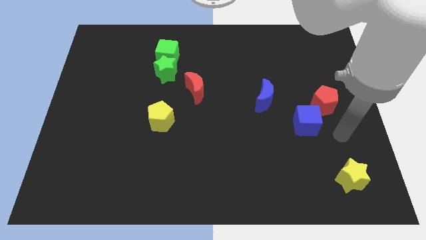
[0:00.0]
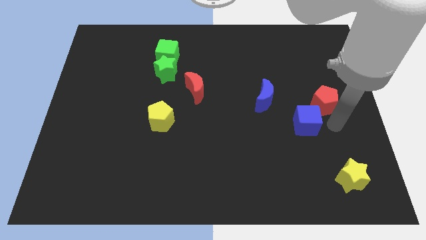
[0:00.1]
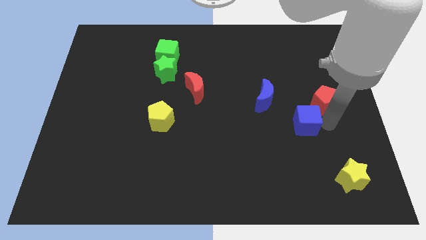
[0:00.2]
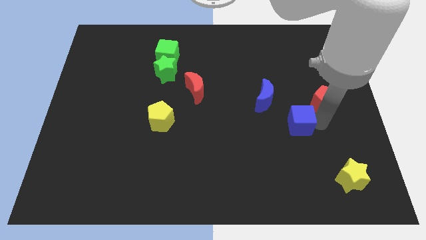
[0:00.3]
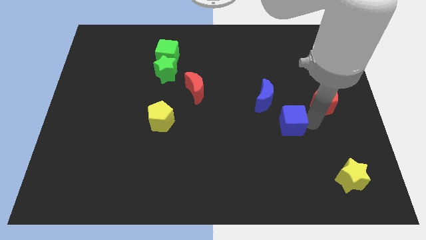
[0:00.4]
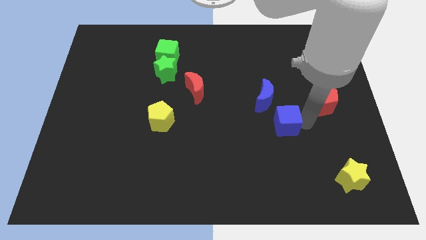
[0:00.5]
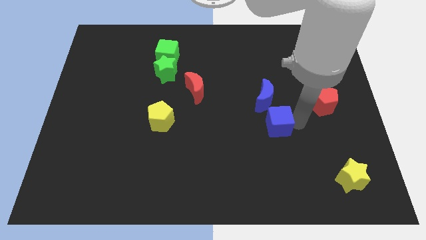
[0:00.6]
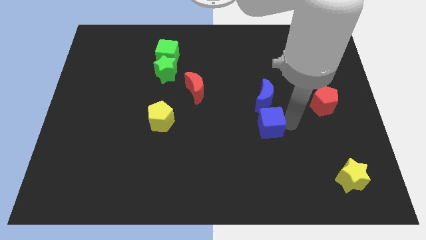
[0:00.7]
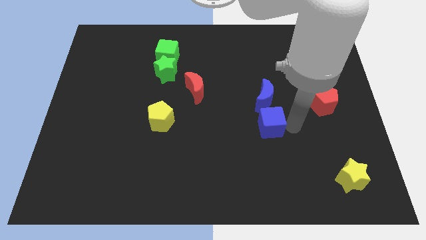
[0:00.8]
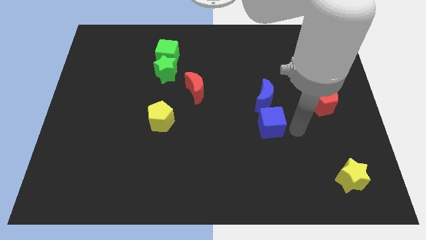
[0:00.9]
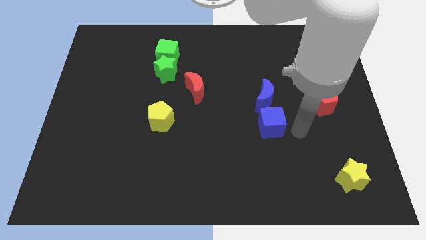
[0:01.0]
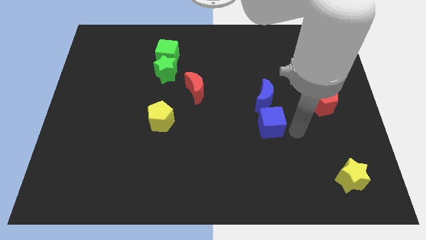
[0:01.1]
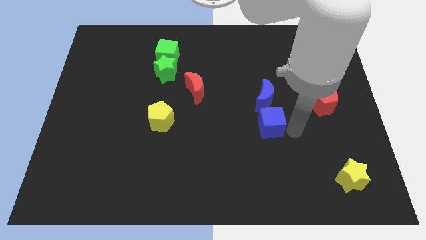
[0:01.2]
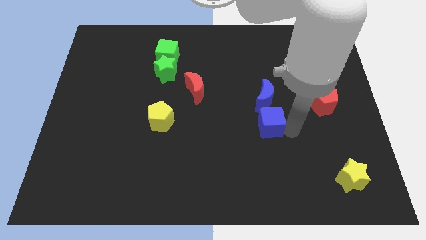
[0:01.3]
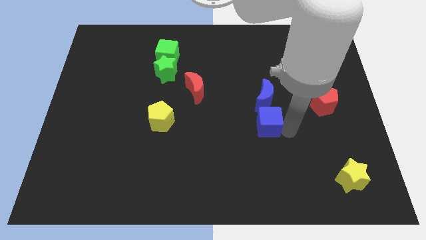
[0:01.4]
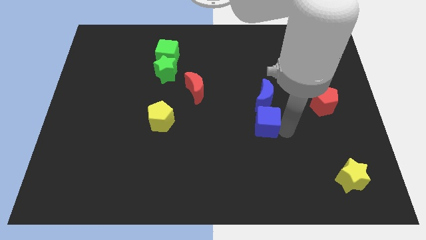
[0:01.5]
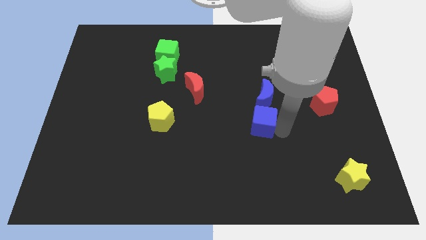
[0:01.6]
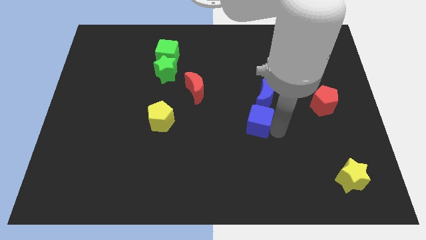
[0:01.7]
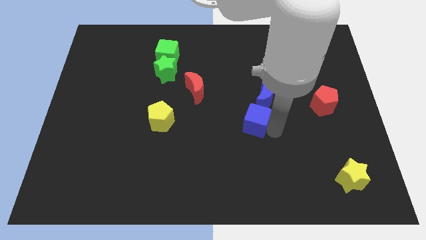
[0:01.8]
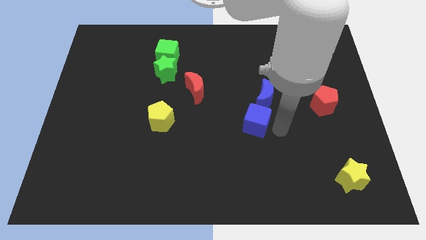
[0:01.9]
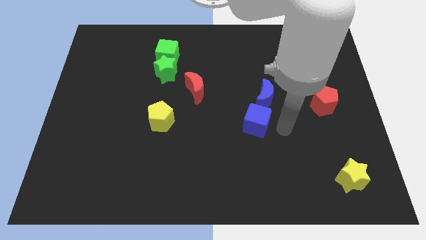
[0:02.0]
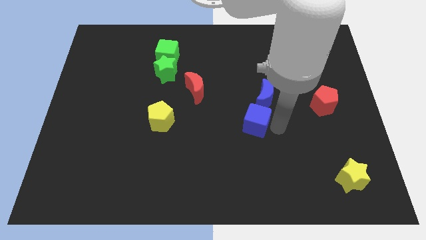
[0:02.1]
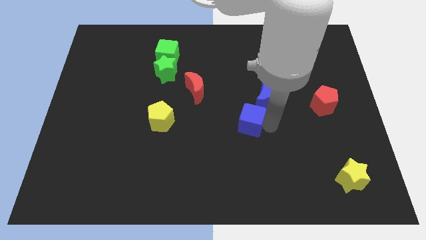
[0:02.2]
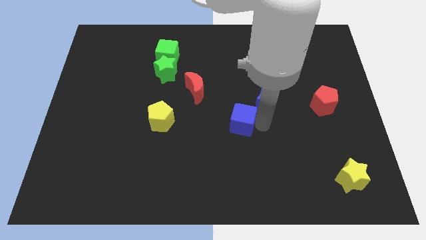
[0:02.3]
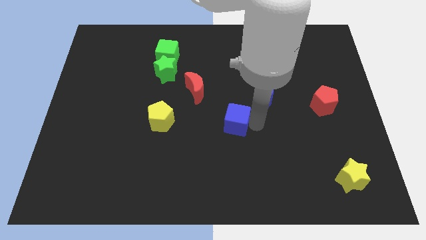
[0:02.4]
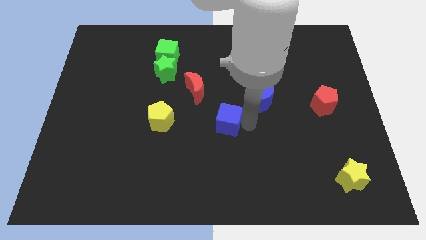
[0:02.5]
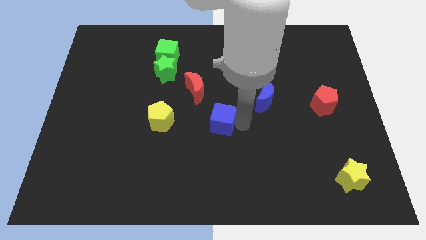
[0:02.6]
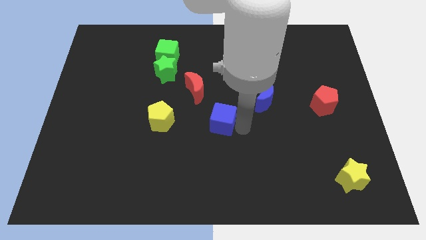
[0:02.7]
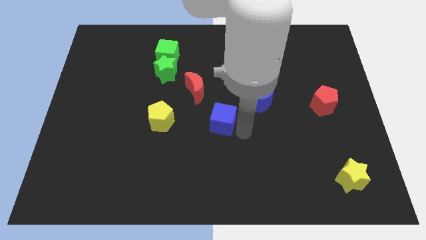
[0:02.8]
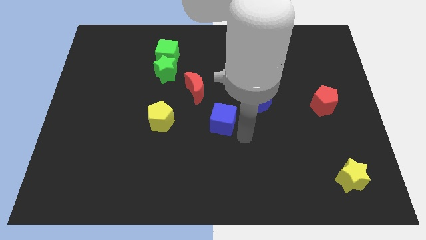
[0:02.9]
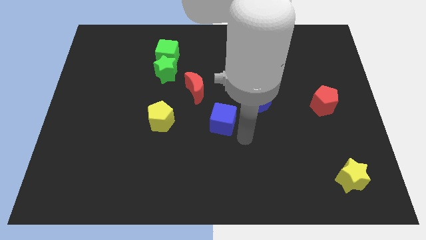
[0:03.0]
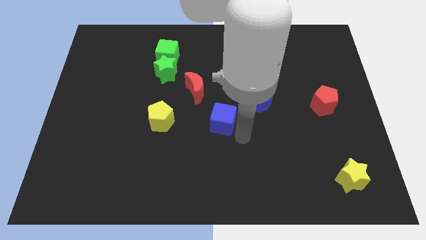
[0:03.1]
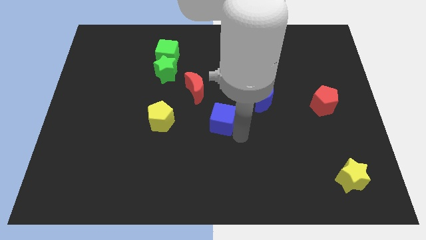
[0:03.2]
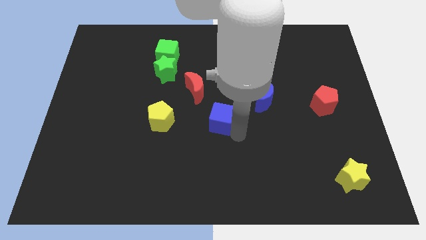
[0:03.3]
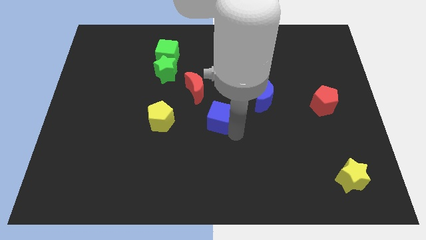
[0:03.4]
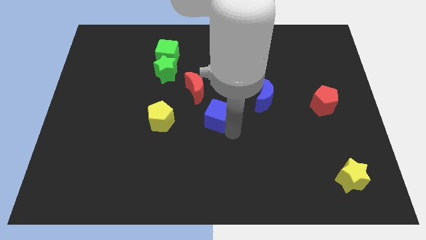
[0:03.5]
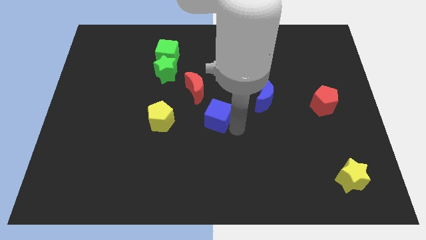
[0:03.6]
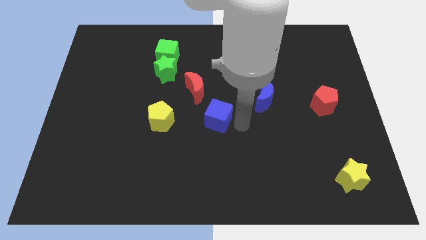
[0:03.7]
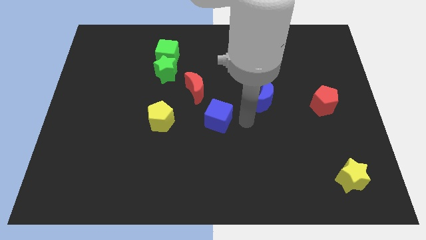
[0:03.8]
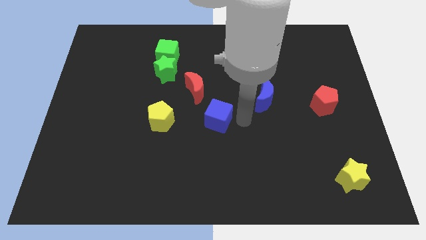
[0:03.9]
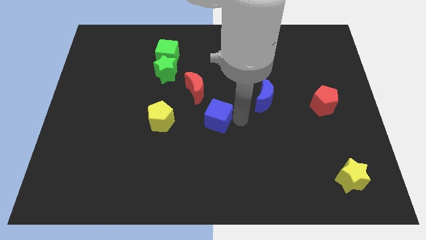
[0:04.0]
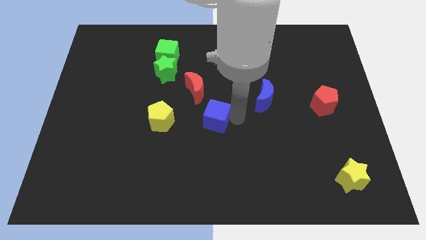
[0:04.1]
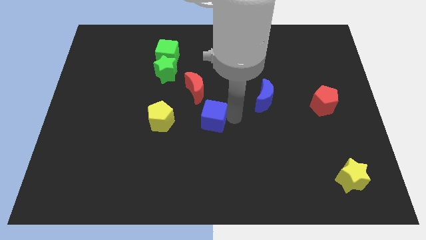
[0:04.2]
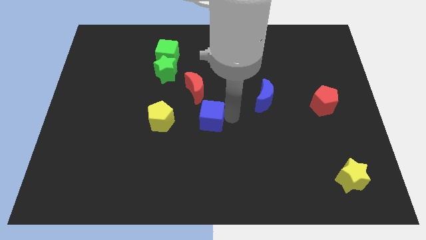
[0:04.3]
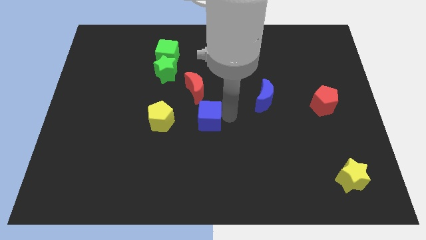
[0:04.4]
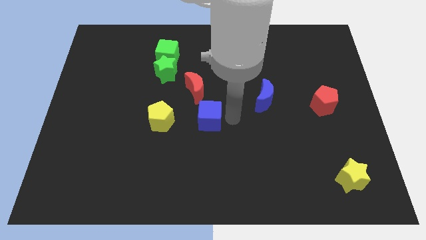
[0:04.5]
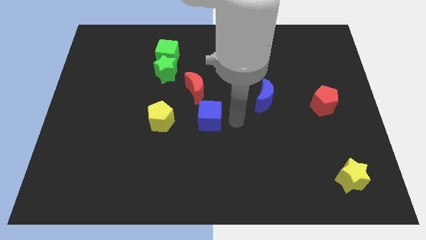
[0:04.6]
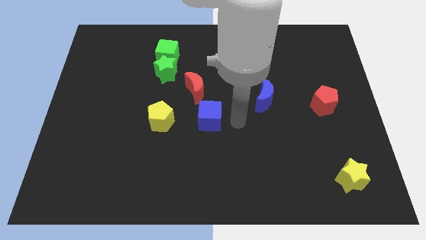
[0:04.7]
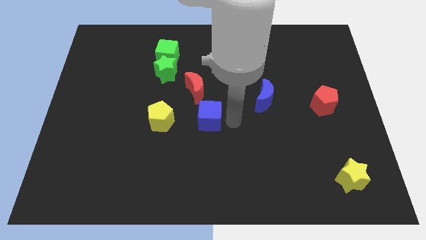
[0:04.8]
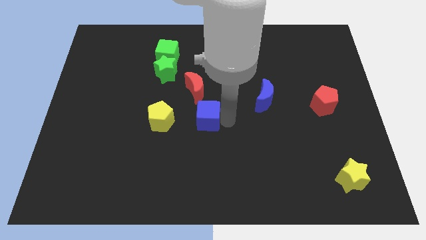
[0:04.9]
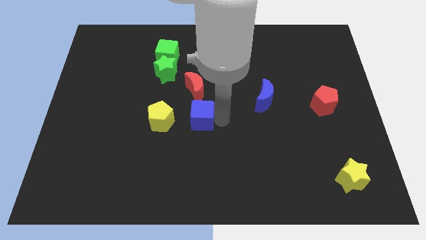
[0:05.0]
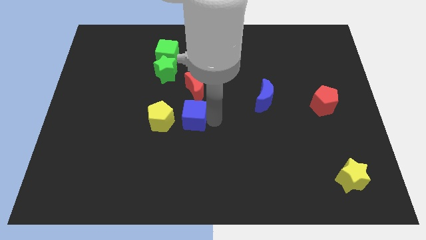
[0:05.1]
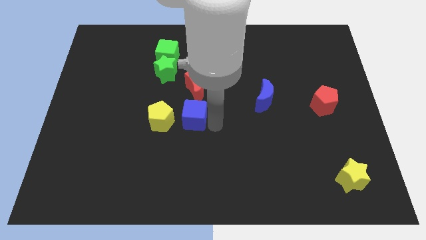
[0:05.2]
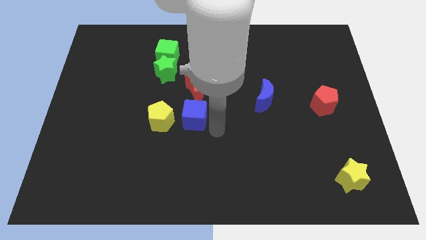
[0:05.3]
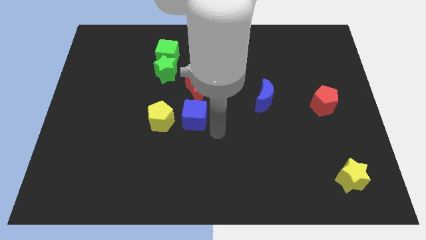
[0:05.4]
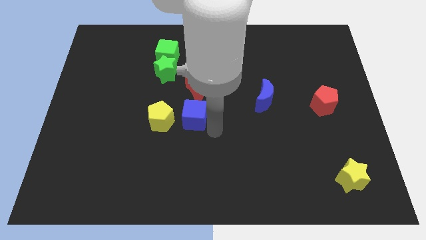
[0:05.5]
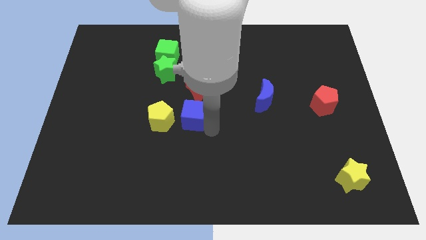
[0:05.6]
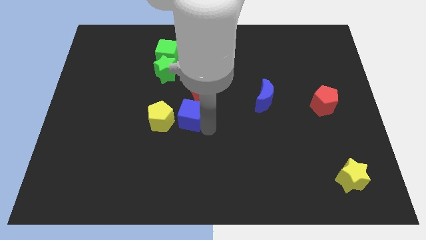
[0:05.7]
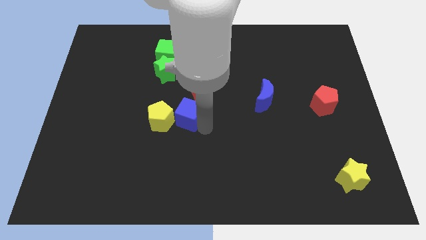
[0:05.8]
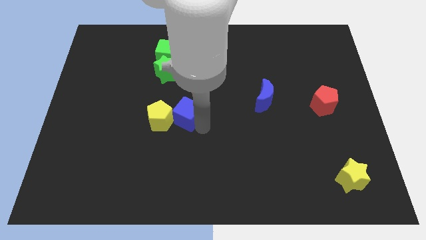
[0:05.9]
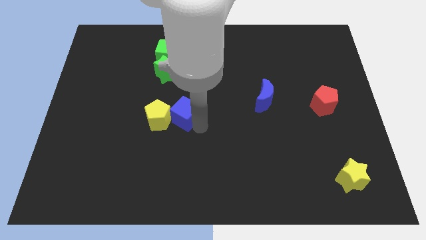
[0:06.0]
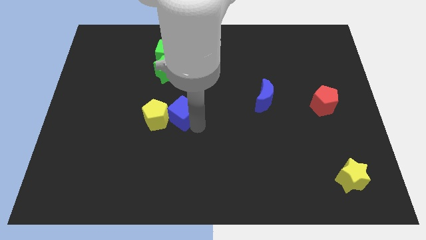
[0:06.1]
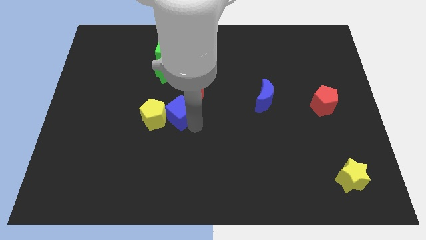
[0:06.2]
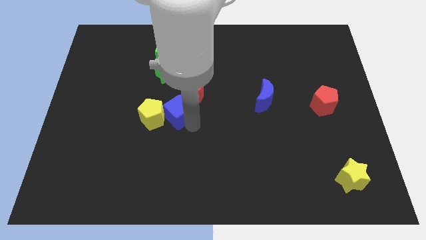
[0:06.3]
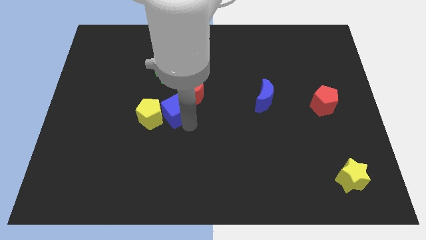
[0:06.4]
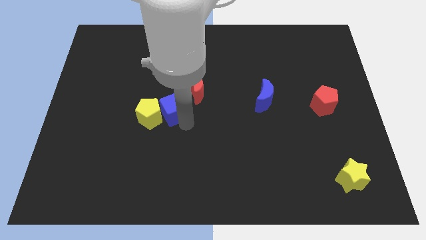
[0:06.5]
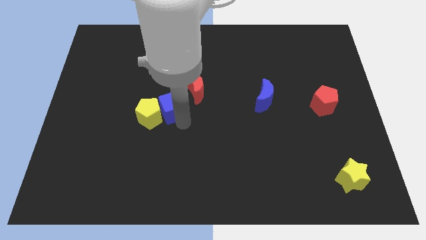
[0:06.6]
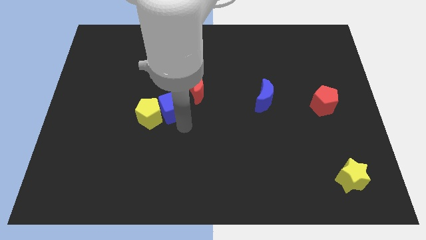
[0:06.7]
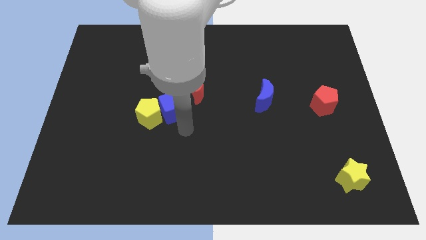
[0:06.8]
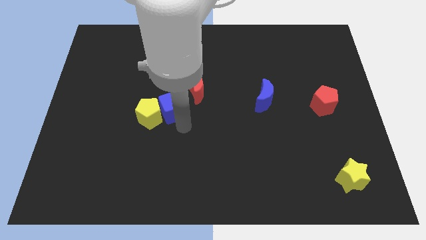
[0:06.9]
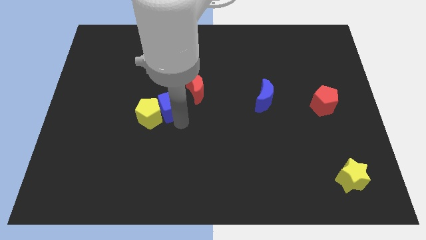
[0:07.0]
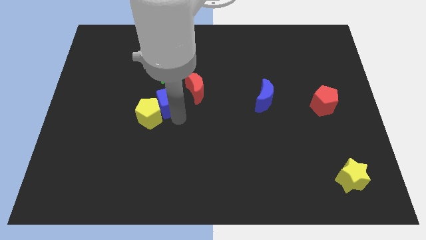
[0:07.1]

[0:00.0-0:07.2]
slide the blue cube to the top of the yellow pentagon
